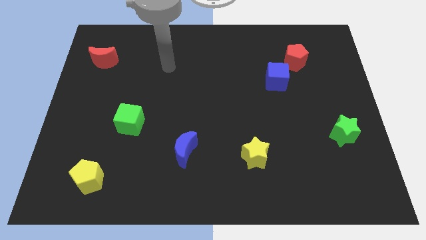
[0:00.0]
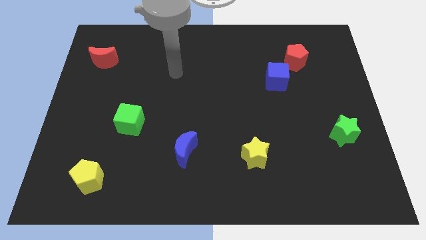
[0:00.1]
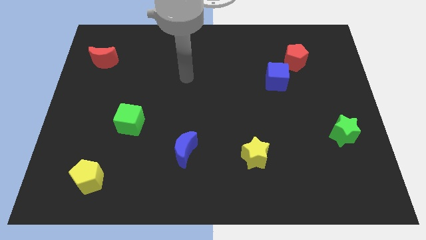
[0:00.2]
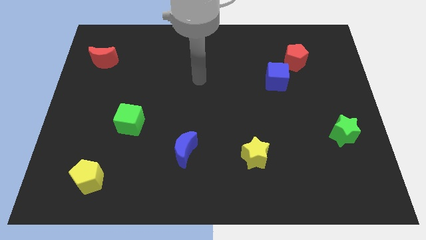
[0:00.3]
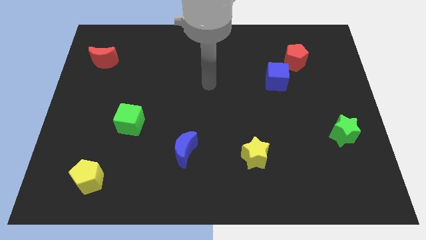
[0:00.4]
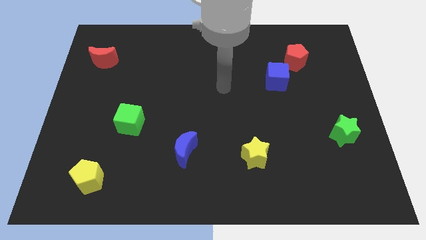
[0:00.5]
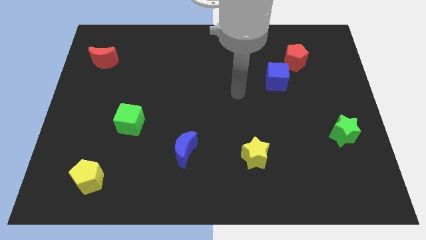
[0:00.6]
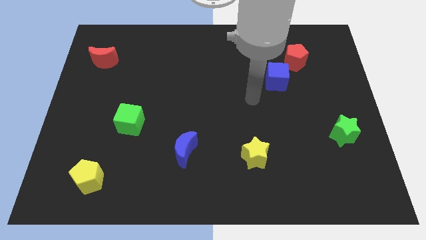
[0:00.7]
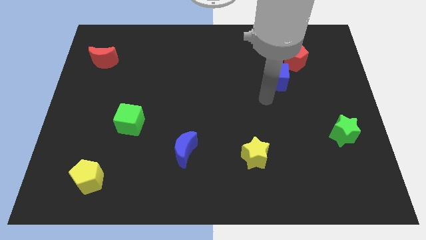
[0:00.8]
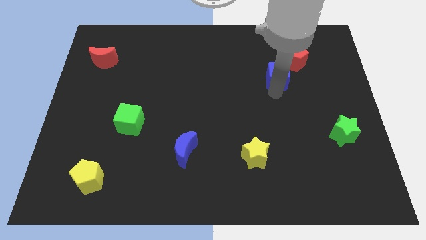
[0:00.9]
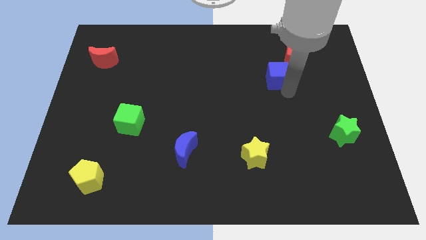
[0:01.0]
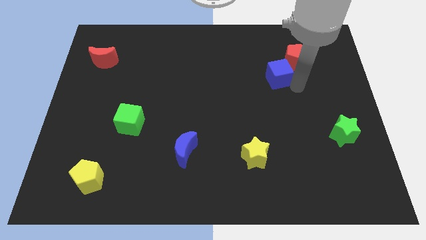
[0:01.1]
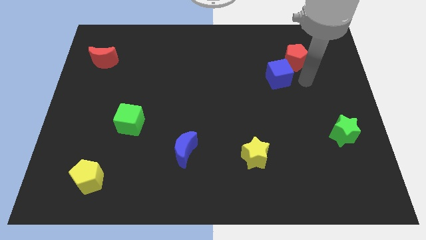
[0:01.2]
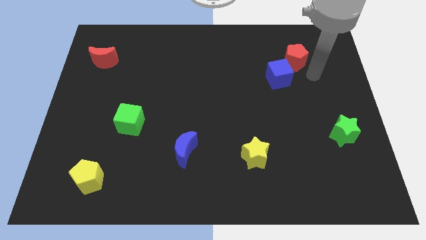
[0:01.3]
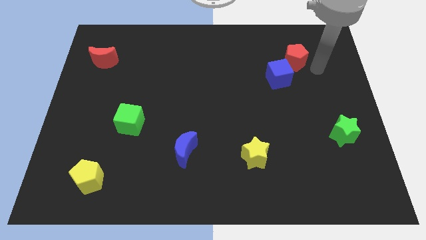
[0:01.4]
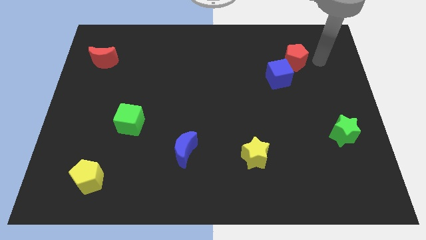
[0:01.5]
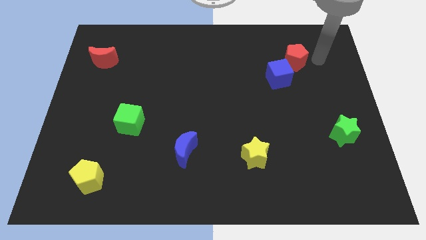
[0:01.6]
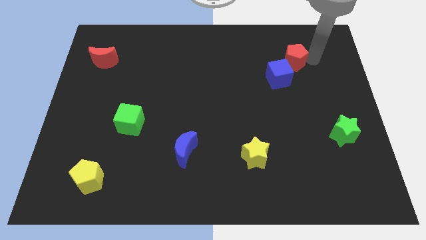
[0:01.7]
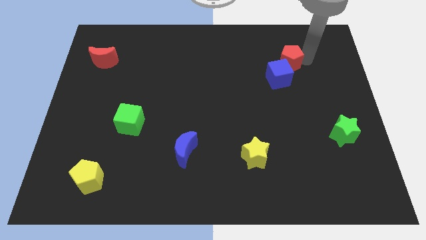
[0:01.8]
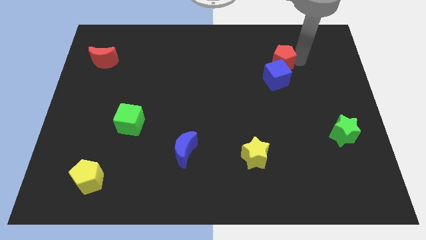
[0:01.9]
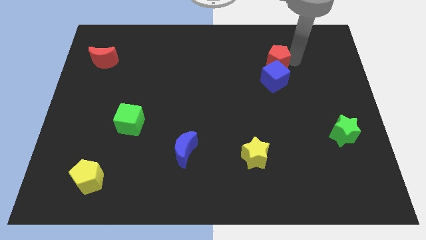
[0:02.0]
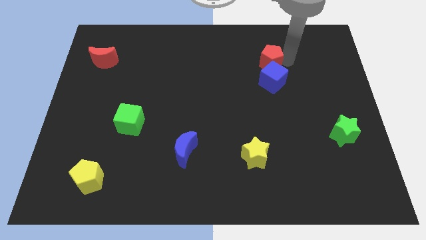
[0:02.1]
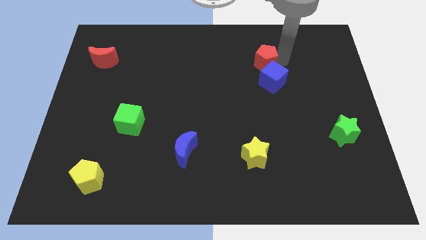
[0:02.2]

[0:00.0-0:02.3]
move the red pentagon to the left a little bit

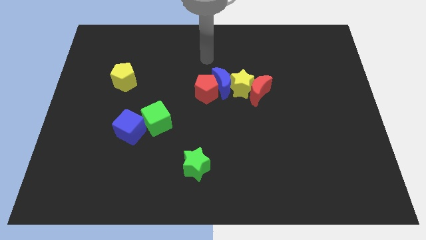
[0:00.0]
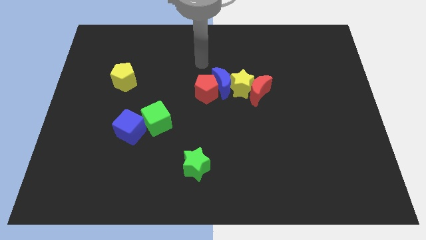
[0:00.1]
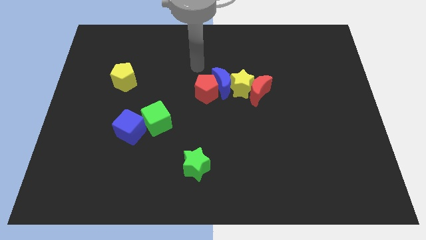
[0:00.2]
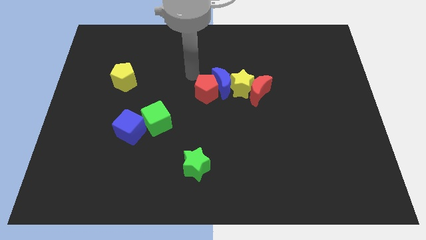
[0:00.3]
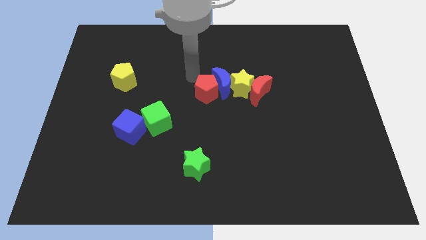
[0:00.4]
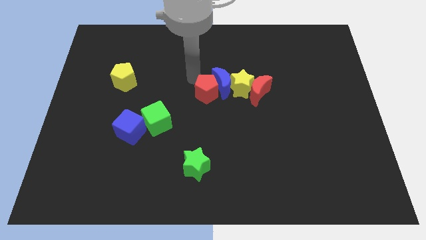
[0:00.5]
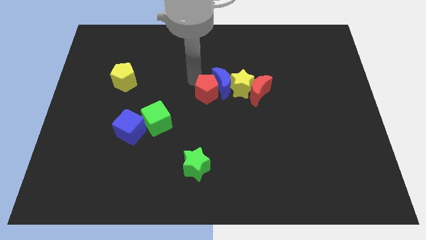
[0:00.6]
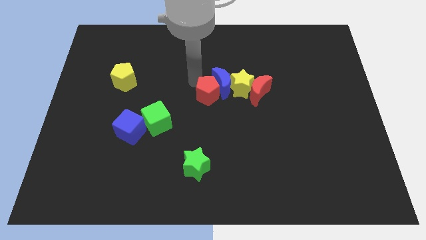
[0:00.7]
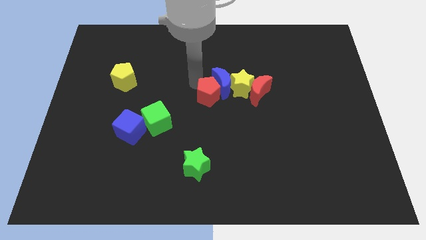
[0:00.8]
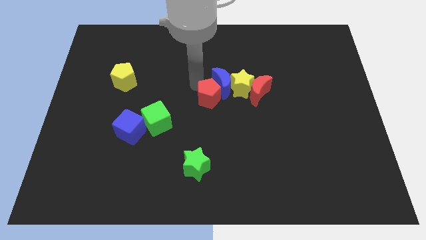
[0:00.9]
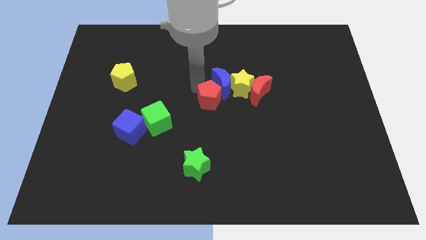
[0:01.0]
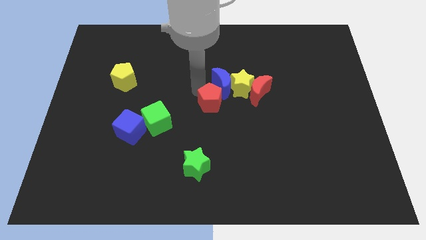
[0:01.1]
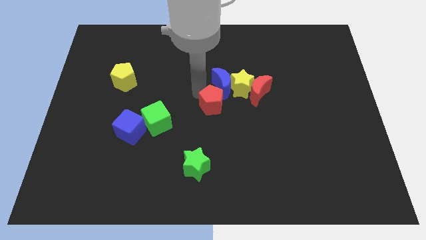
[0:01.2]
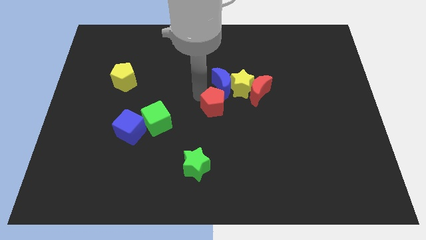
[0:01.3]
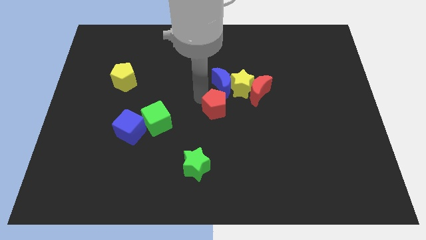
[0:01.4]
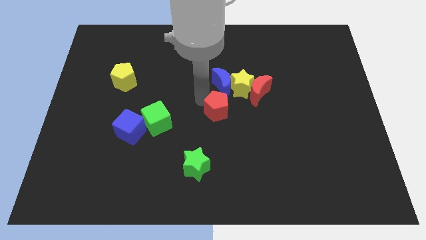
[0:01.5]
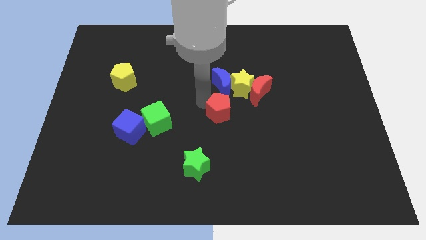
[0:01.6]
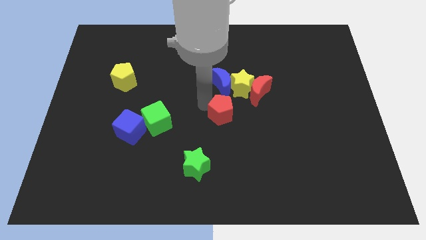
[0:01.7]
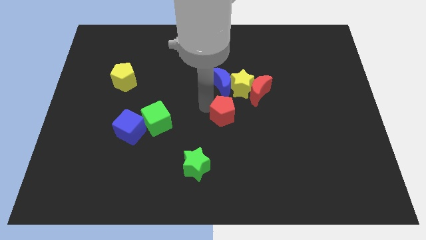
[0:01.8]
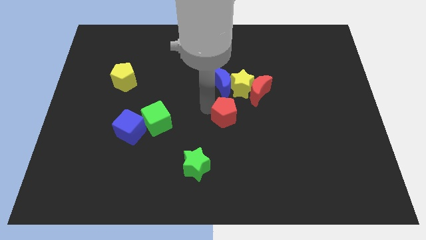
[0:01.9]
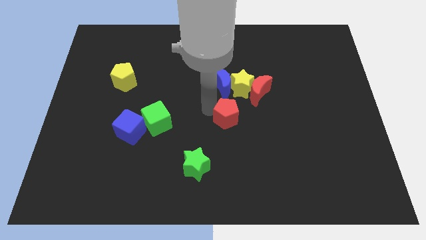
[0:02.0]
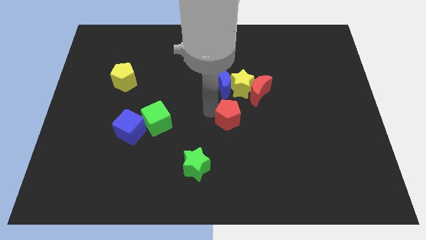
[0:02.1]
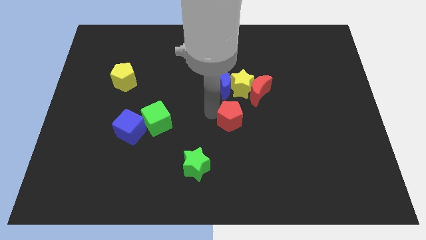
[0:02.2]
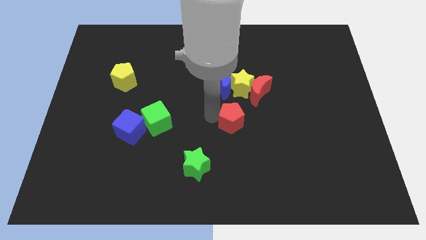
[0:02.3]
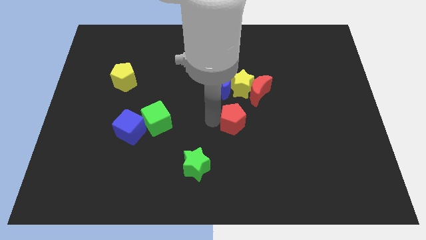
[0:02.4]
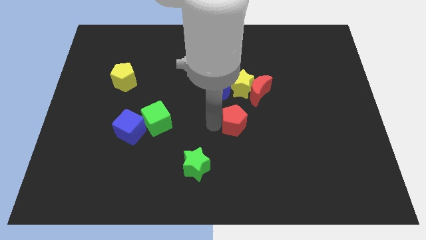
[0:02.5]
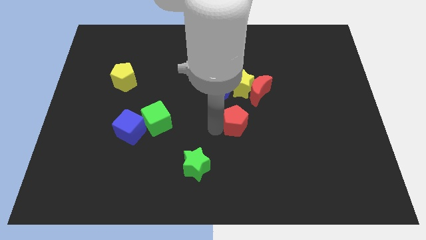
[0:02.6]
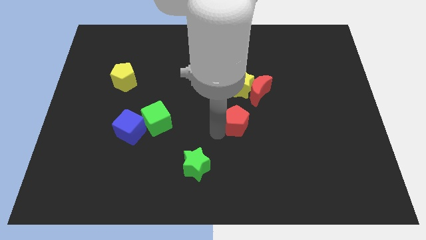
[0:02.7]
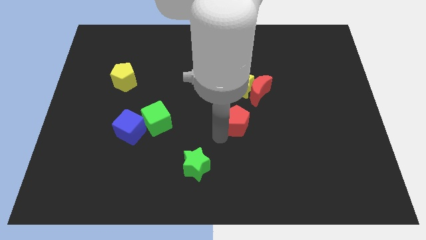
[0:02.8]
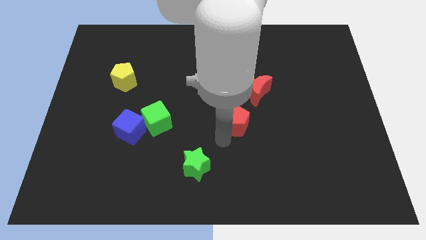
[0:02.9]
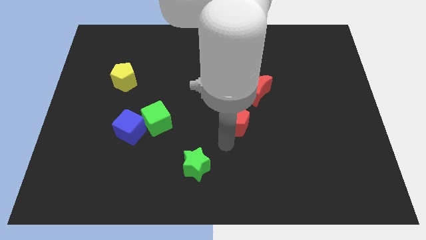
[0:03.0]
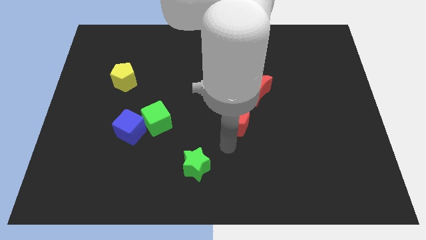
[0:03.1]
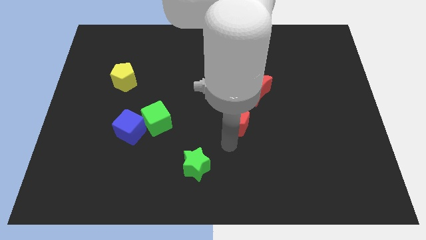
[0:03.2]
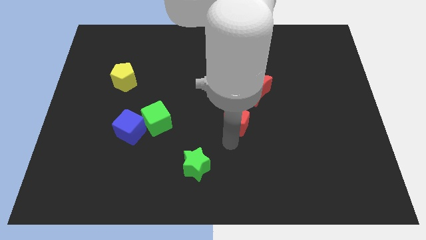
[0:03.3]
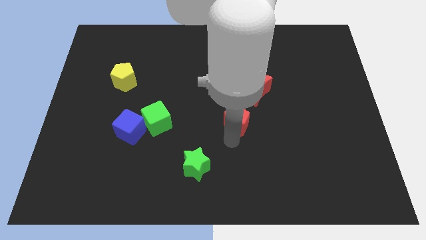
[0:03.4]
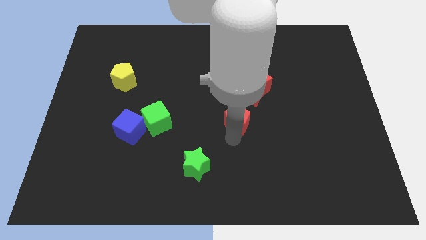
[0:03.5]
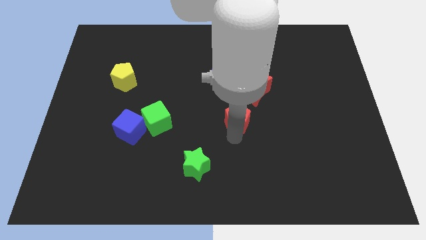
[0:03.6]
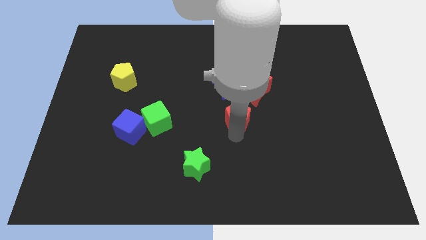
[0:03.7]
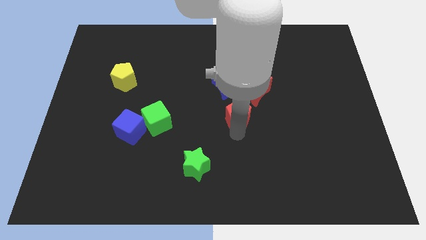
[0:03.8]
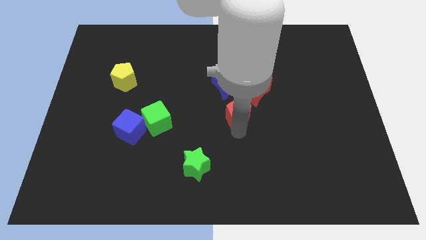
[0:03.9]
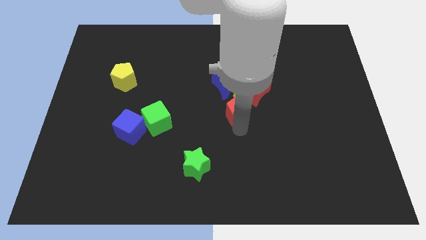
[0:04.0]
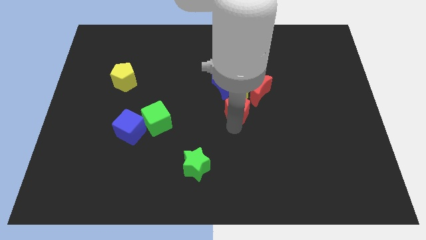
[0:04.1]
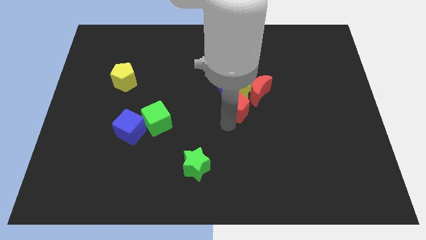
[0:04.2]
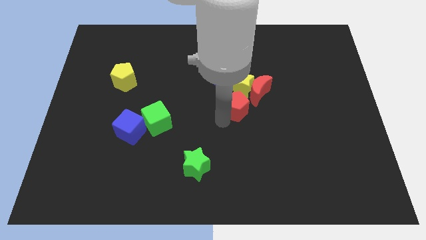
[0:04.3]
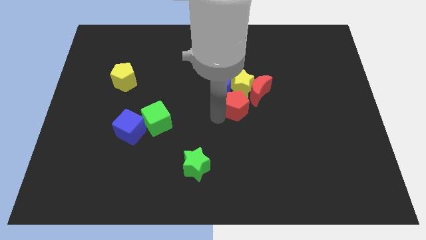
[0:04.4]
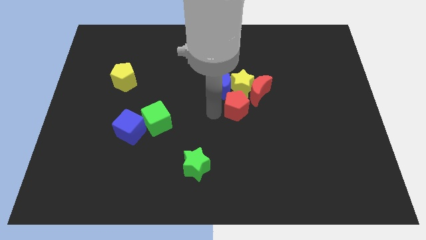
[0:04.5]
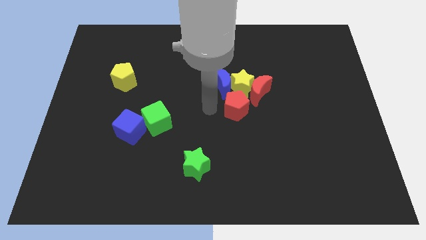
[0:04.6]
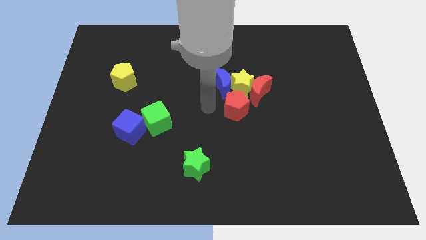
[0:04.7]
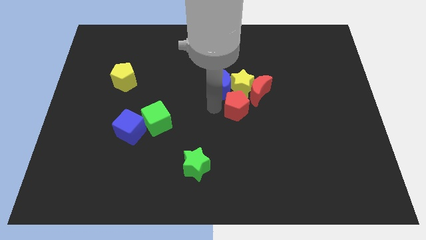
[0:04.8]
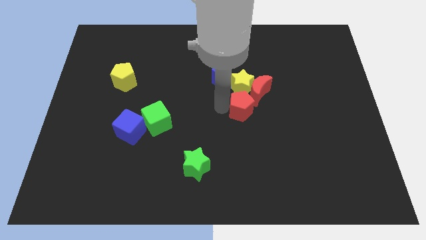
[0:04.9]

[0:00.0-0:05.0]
slide the red pentagon a little bit to the right

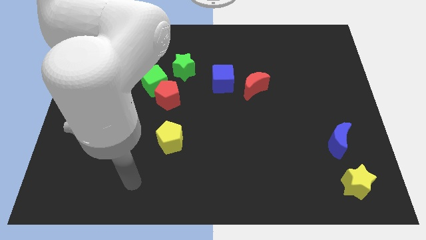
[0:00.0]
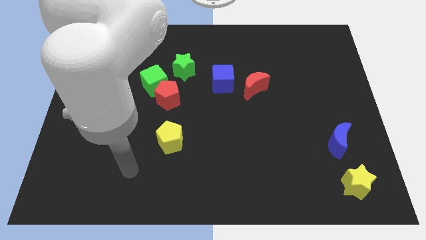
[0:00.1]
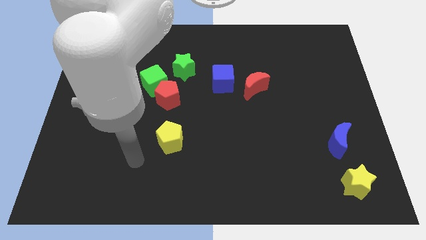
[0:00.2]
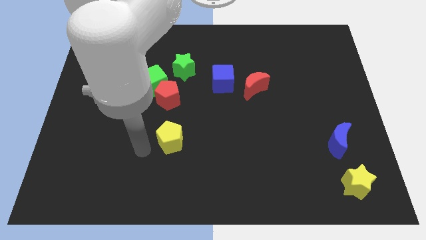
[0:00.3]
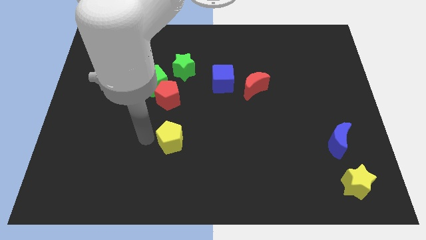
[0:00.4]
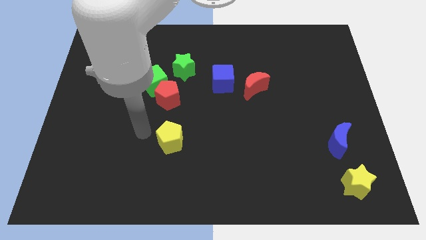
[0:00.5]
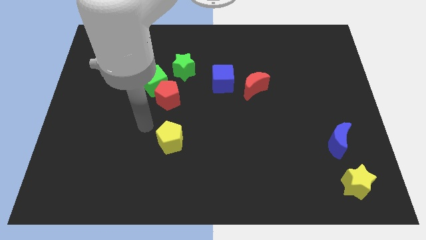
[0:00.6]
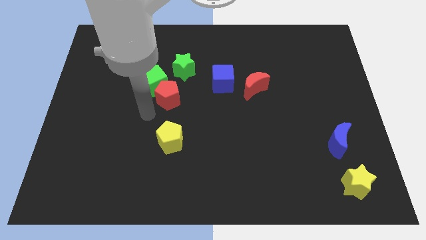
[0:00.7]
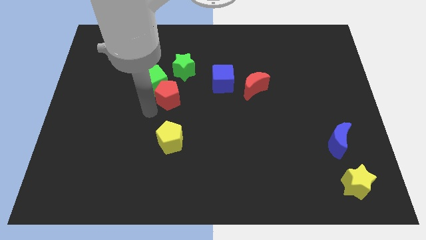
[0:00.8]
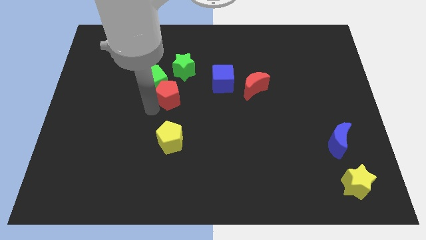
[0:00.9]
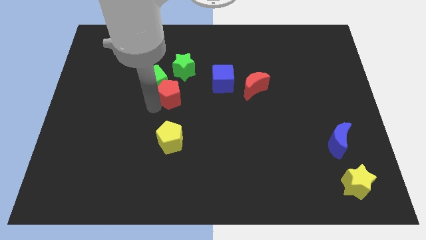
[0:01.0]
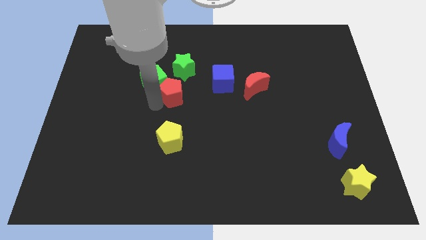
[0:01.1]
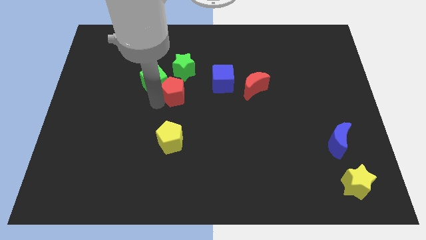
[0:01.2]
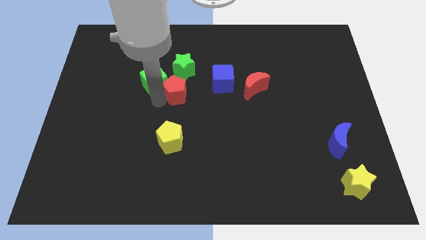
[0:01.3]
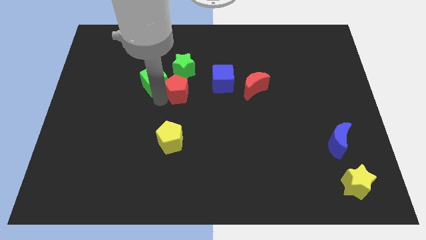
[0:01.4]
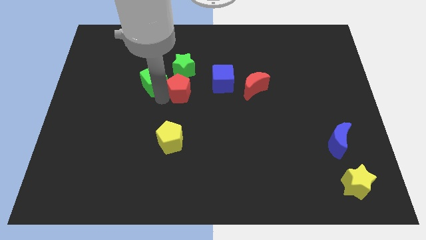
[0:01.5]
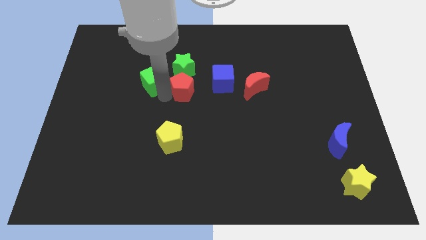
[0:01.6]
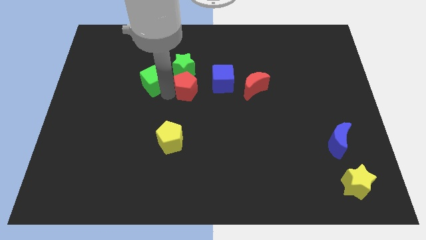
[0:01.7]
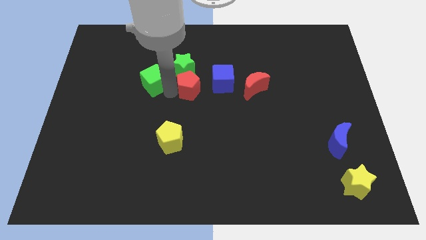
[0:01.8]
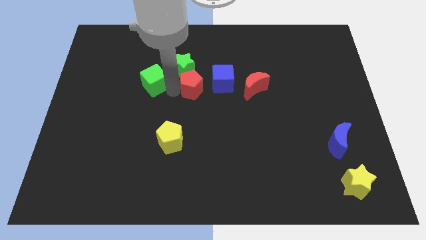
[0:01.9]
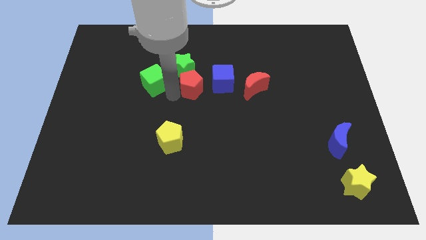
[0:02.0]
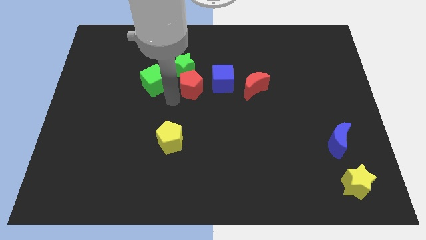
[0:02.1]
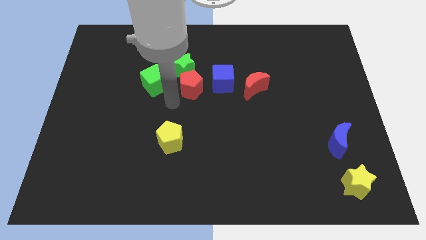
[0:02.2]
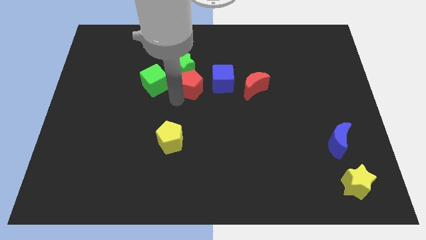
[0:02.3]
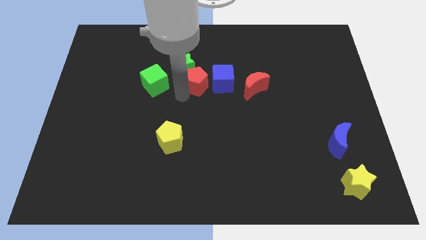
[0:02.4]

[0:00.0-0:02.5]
move the red pentagon up and right diagonally a bit
